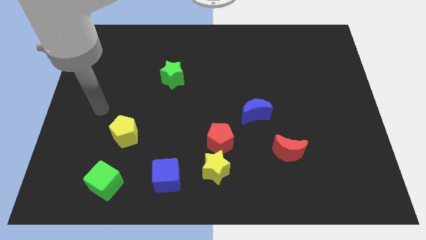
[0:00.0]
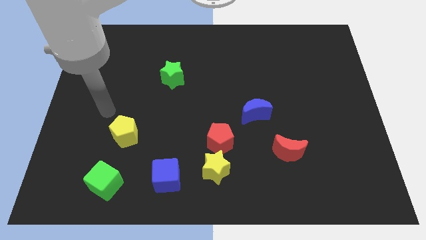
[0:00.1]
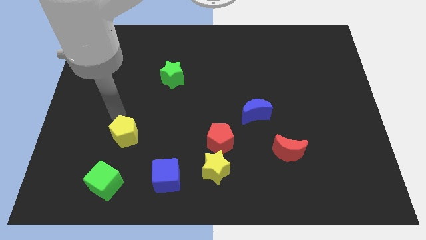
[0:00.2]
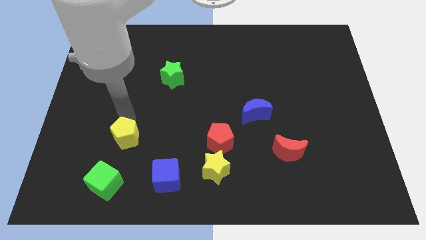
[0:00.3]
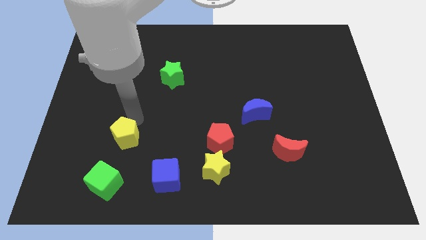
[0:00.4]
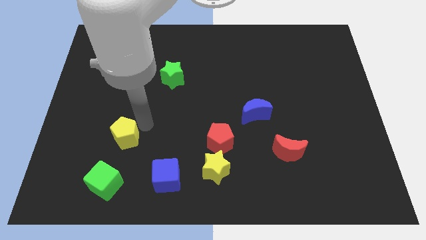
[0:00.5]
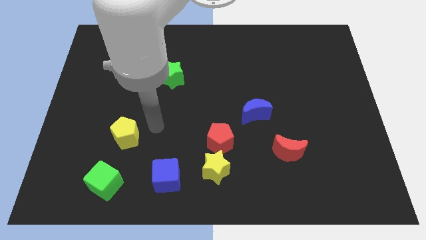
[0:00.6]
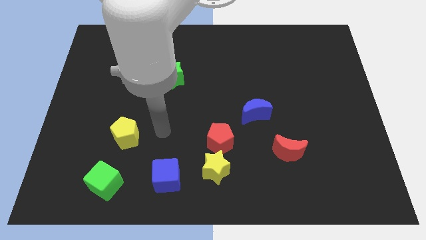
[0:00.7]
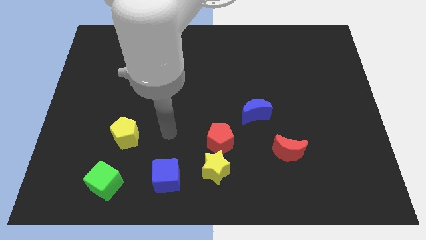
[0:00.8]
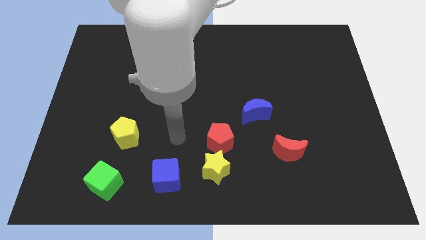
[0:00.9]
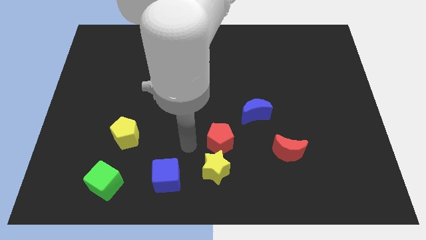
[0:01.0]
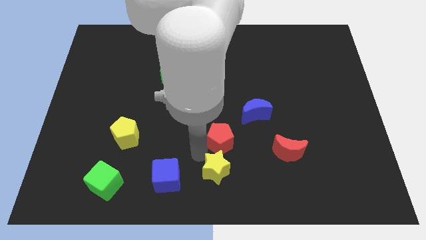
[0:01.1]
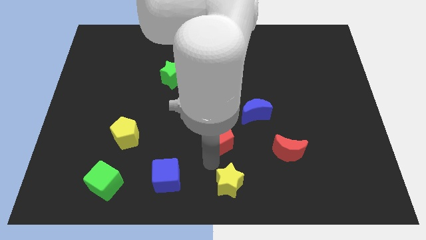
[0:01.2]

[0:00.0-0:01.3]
move the red pentagon away from the yellow star

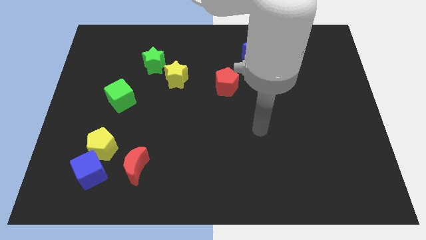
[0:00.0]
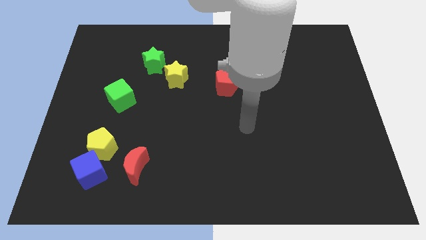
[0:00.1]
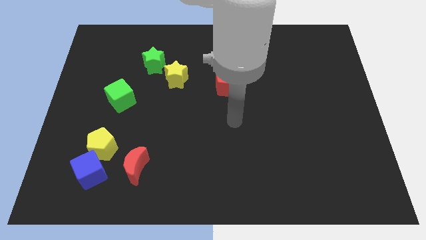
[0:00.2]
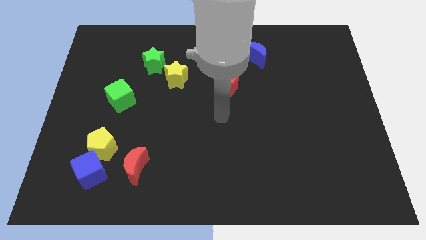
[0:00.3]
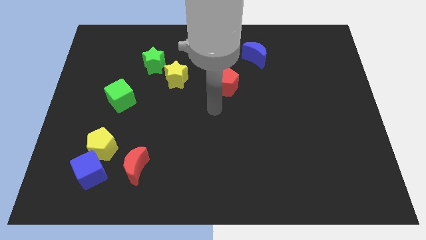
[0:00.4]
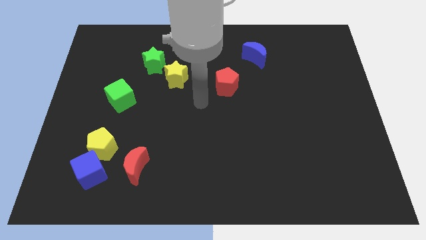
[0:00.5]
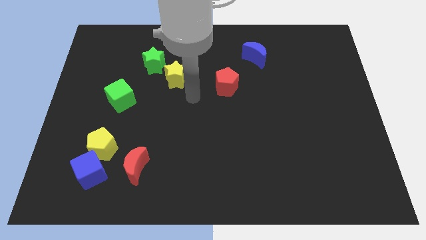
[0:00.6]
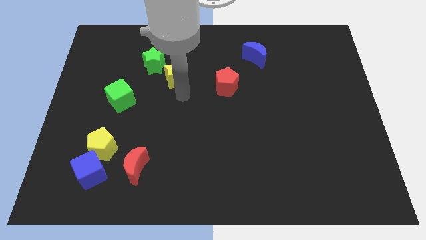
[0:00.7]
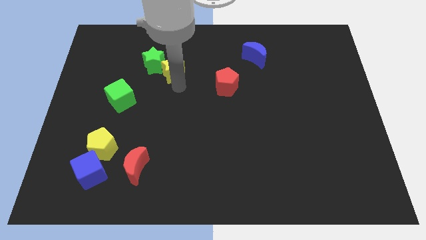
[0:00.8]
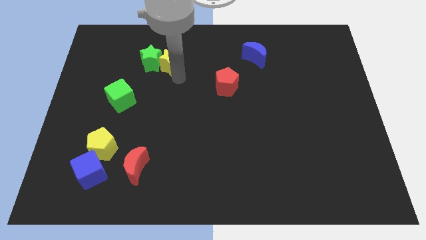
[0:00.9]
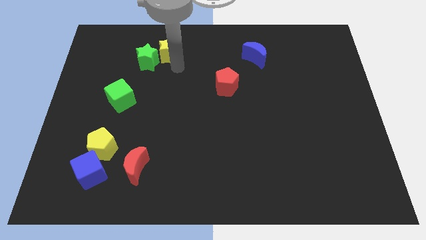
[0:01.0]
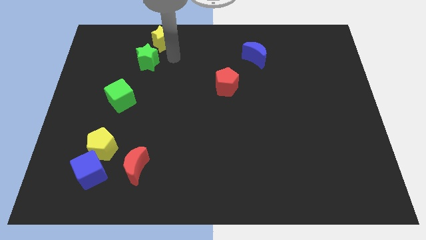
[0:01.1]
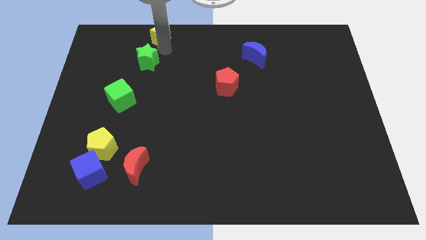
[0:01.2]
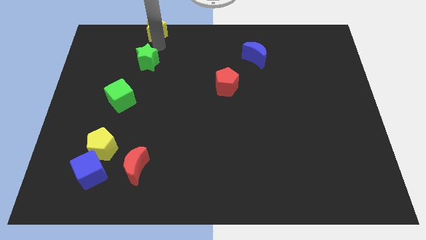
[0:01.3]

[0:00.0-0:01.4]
separate the green star from the yellow star

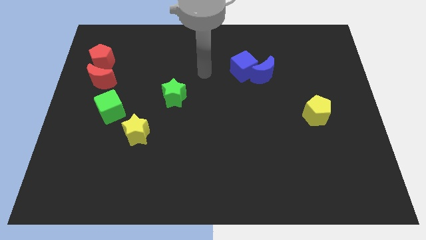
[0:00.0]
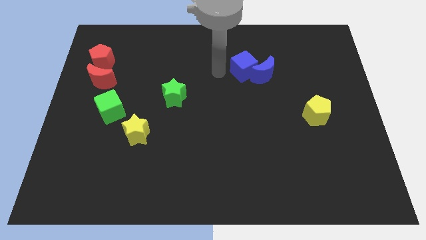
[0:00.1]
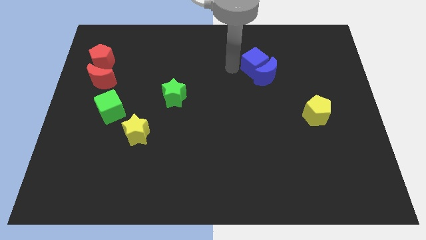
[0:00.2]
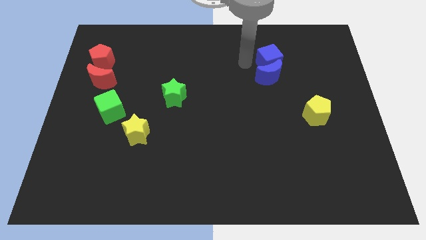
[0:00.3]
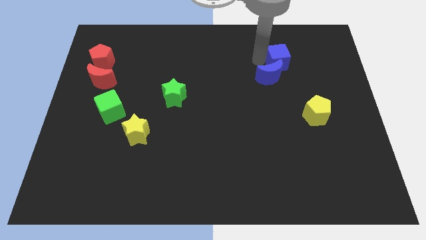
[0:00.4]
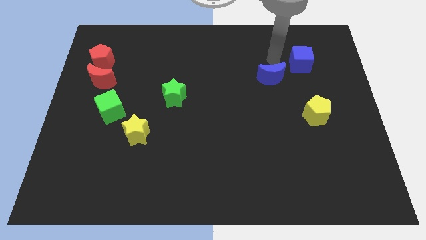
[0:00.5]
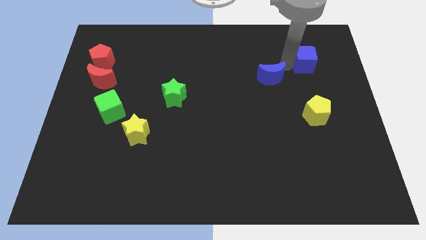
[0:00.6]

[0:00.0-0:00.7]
pull the blue moon apart from the blue cube

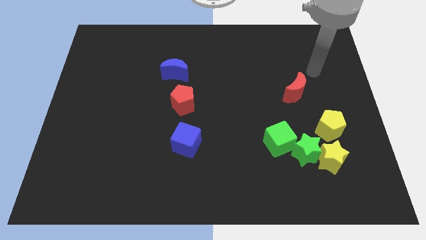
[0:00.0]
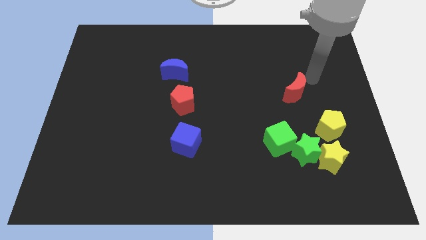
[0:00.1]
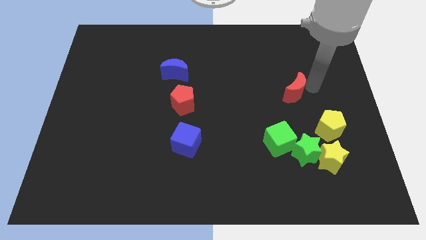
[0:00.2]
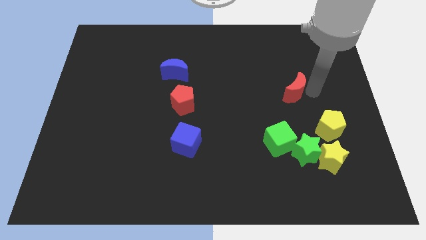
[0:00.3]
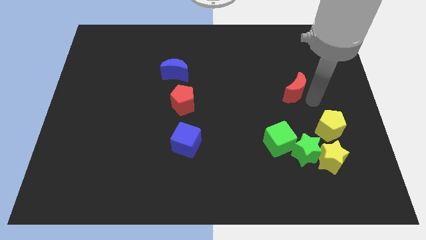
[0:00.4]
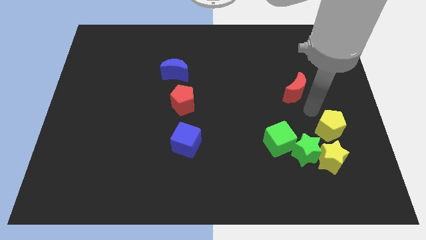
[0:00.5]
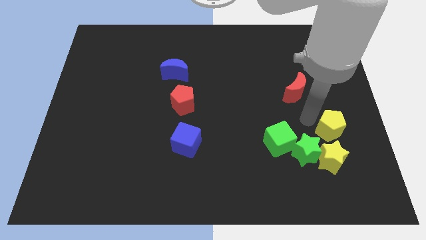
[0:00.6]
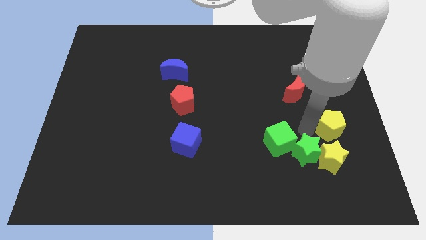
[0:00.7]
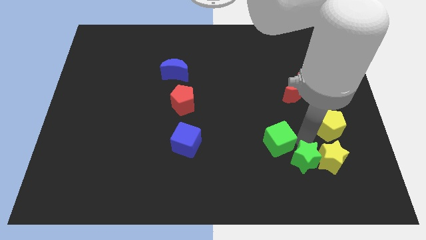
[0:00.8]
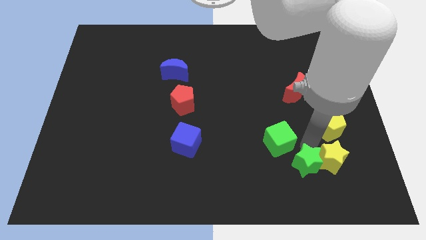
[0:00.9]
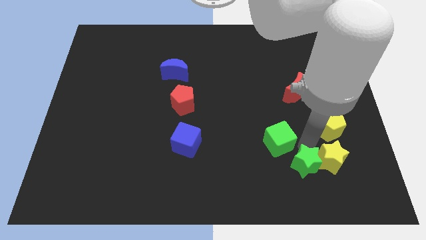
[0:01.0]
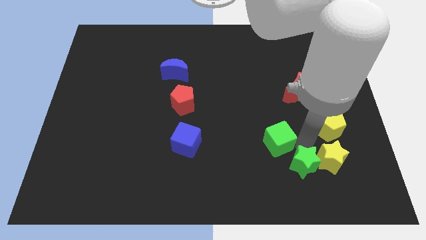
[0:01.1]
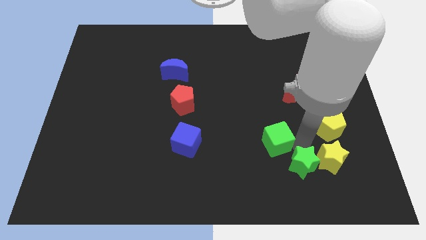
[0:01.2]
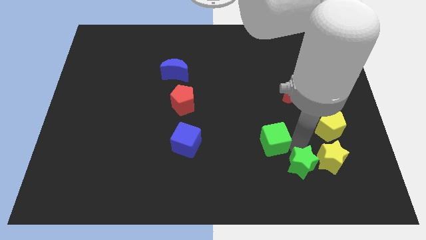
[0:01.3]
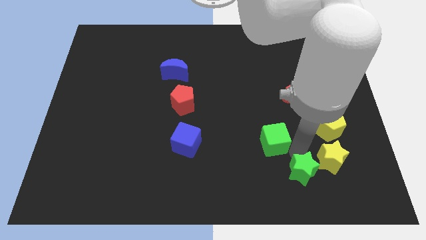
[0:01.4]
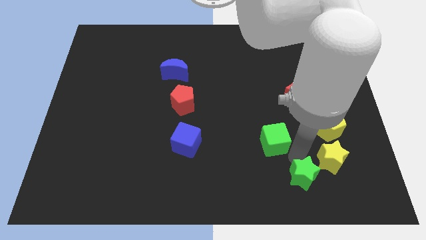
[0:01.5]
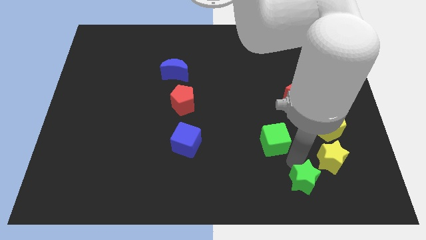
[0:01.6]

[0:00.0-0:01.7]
move the green cube away from the green star

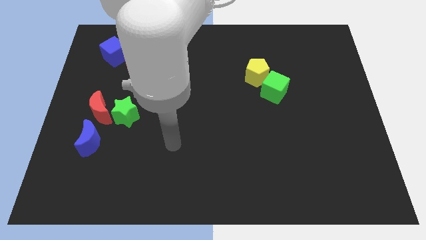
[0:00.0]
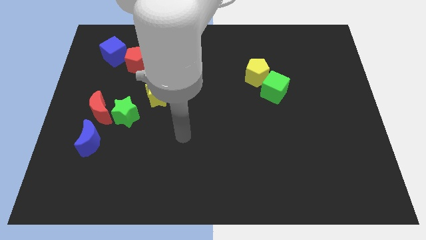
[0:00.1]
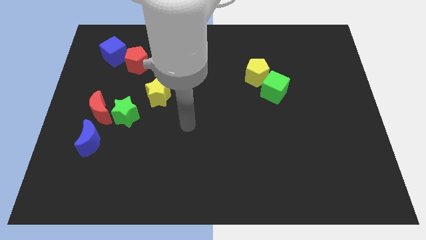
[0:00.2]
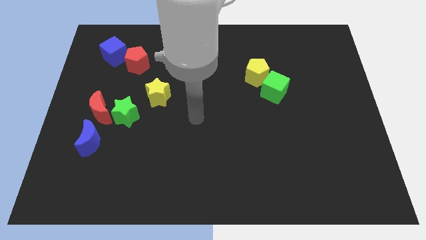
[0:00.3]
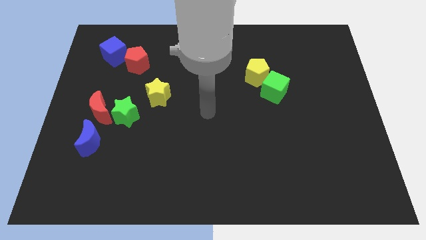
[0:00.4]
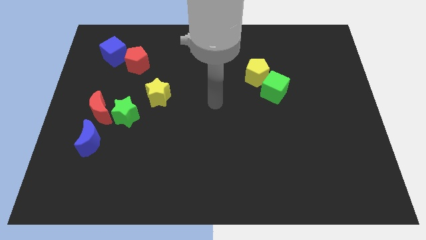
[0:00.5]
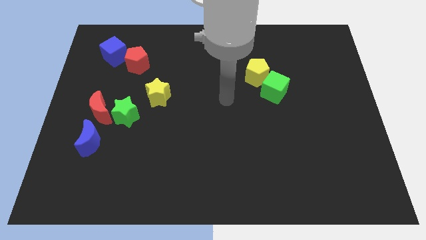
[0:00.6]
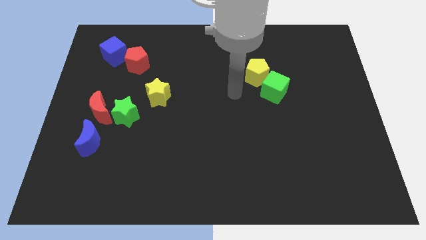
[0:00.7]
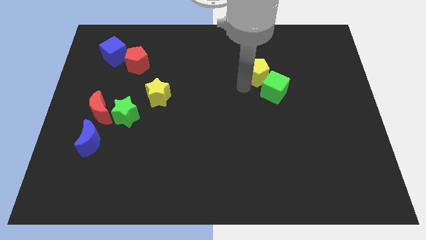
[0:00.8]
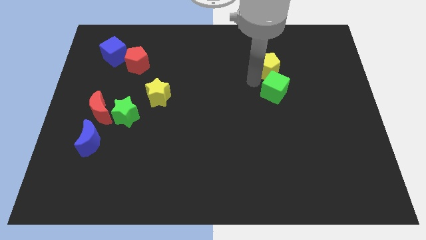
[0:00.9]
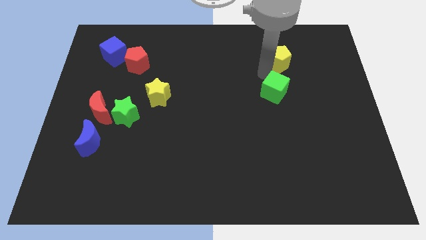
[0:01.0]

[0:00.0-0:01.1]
pull the green cube apart from the yellow pentagon

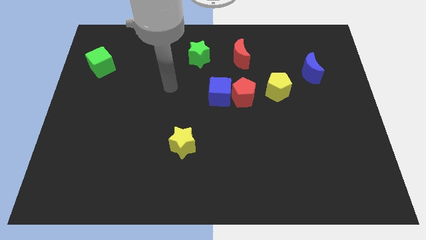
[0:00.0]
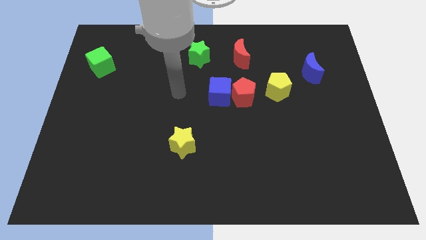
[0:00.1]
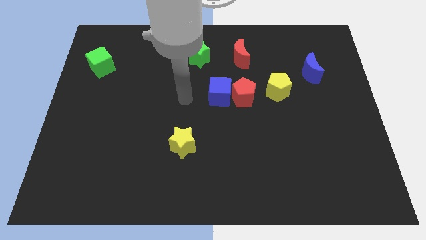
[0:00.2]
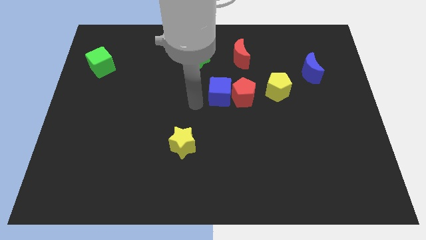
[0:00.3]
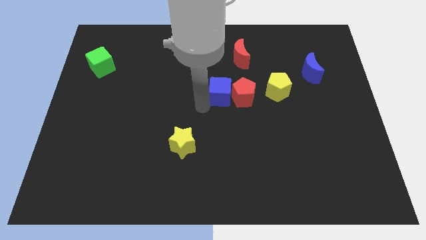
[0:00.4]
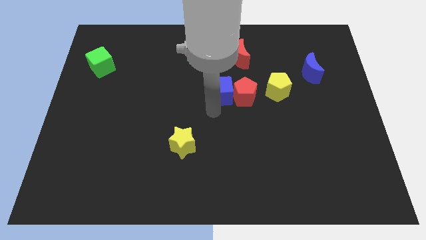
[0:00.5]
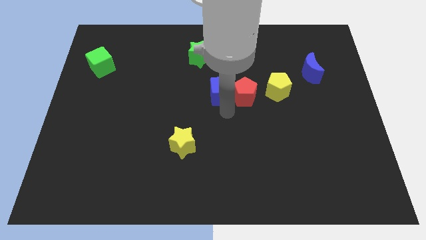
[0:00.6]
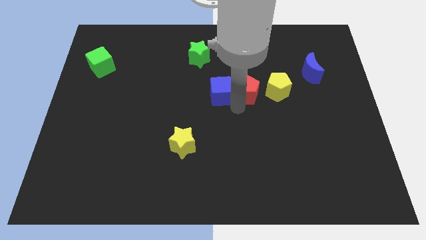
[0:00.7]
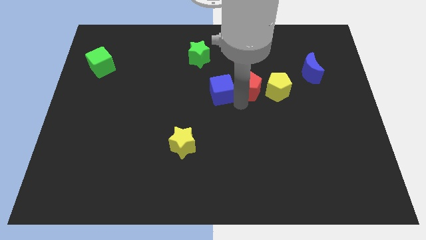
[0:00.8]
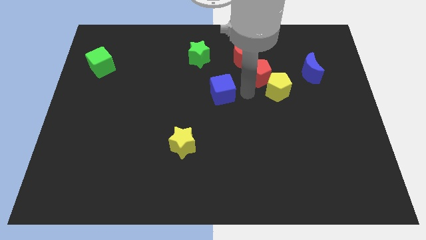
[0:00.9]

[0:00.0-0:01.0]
separate the blue cube from the red pentagon

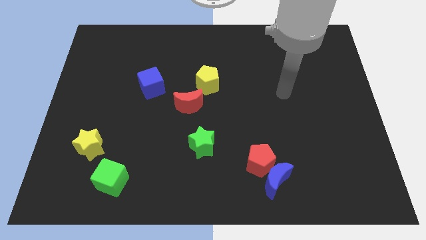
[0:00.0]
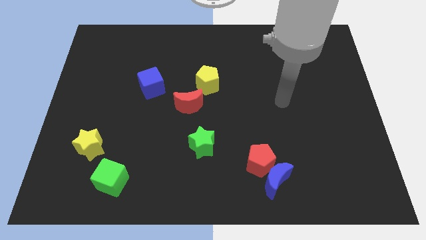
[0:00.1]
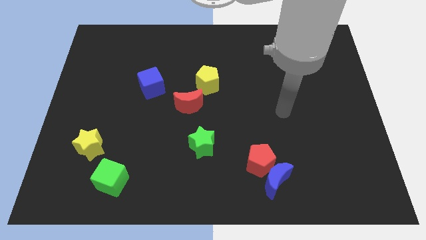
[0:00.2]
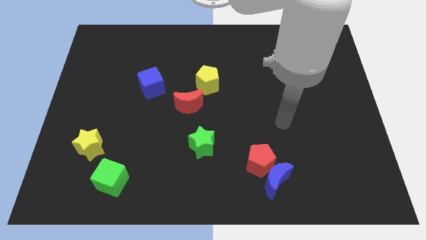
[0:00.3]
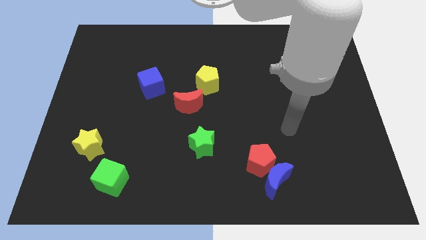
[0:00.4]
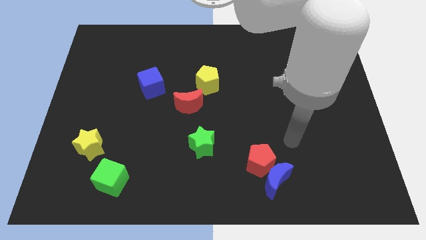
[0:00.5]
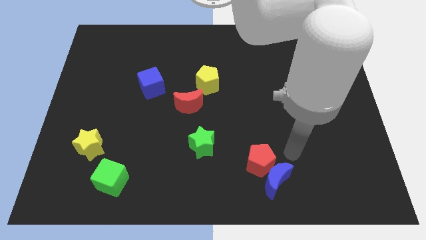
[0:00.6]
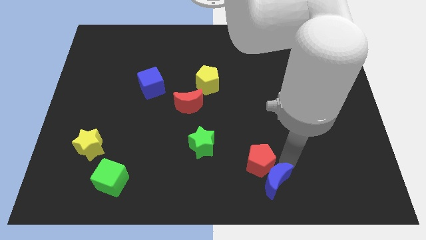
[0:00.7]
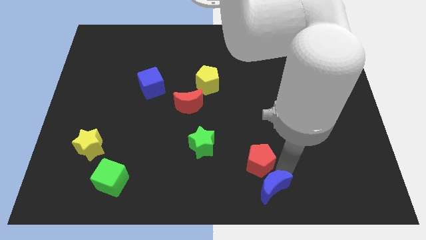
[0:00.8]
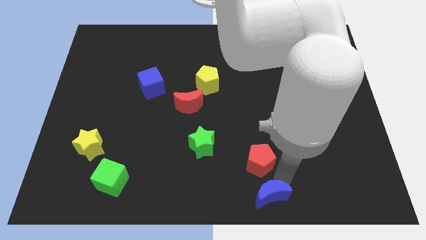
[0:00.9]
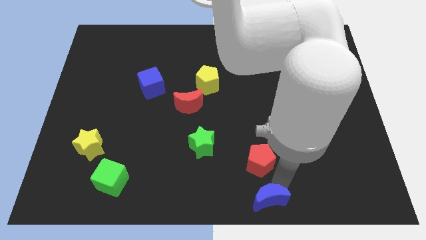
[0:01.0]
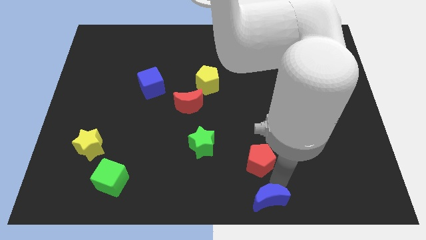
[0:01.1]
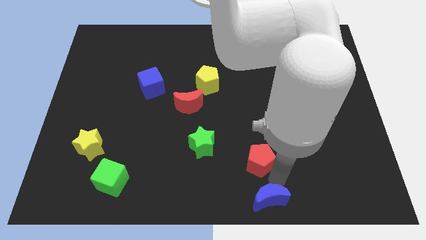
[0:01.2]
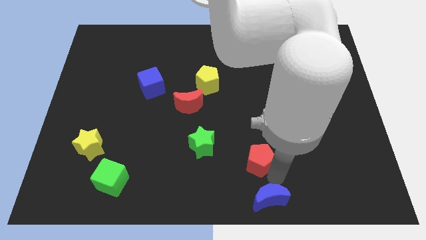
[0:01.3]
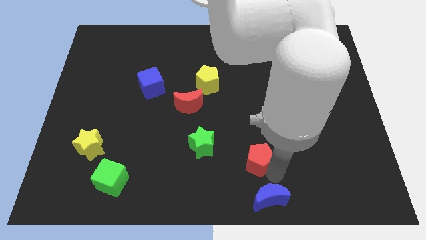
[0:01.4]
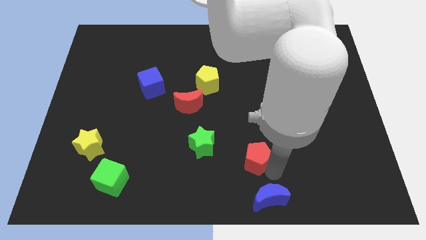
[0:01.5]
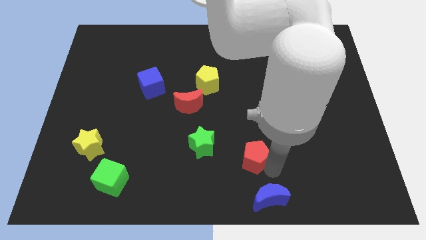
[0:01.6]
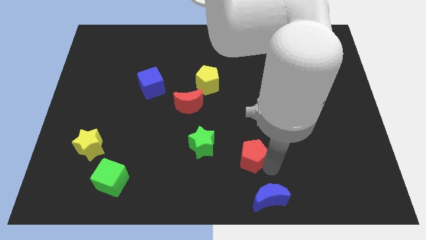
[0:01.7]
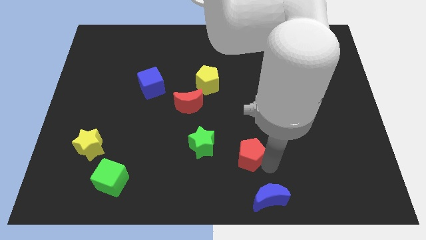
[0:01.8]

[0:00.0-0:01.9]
pull the red pentagon apart from the blue moon
